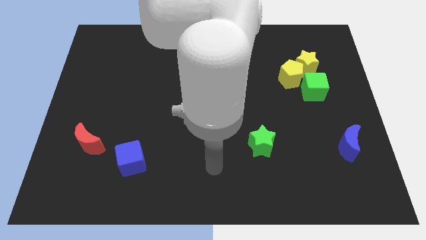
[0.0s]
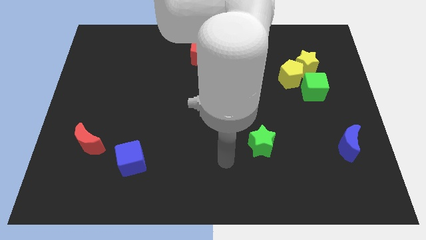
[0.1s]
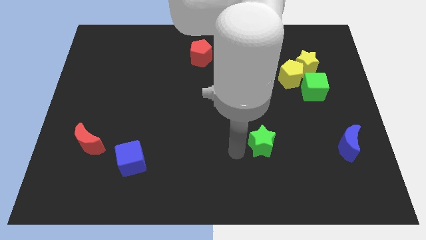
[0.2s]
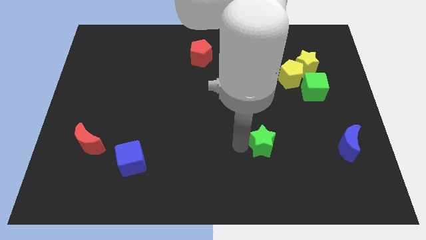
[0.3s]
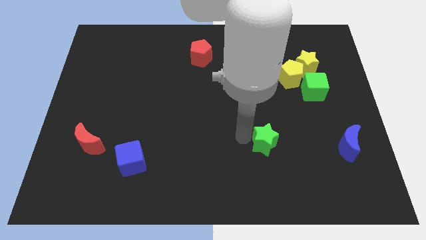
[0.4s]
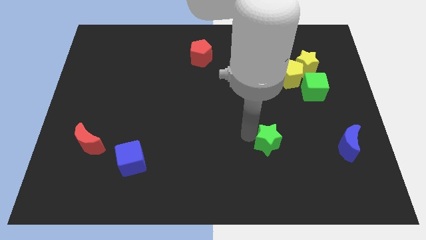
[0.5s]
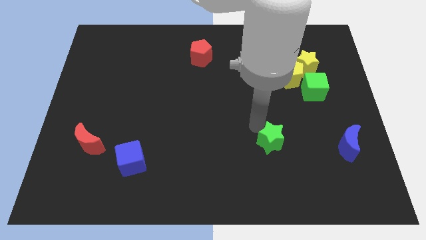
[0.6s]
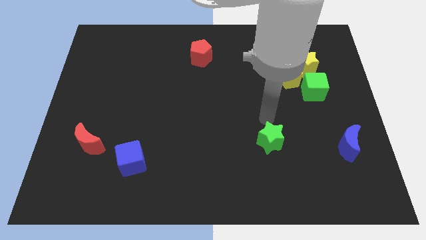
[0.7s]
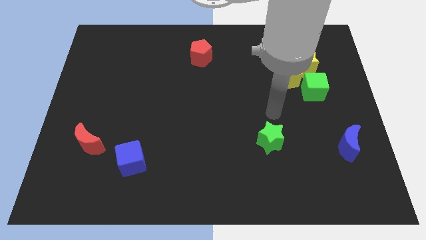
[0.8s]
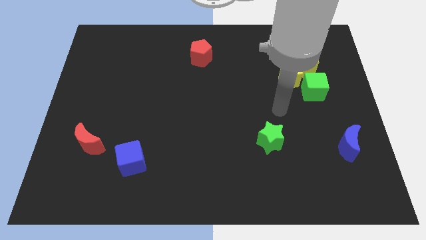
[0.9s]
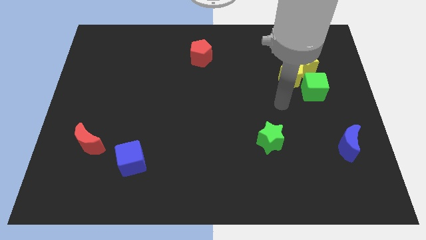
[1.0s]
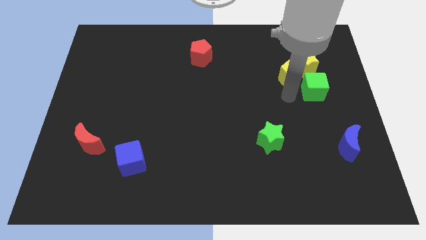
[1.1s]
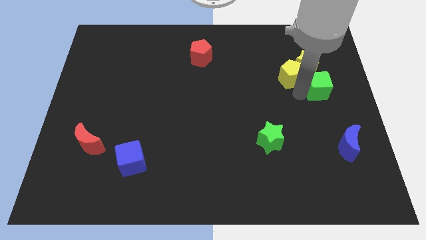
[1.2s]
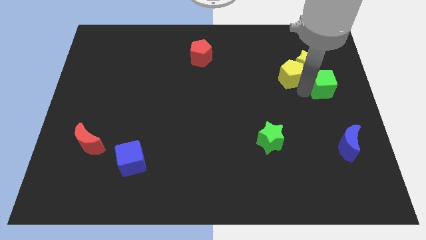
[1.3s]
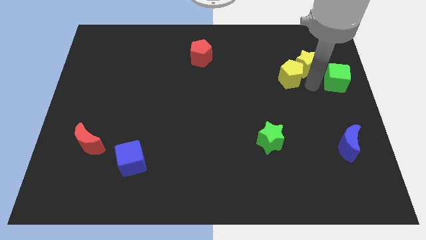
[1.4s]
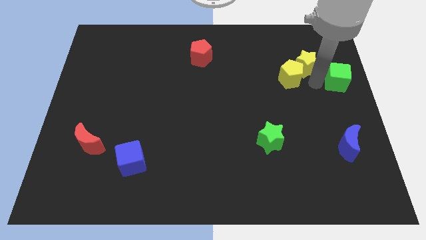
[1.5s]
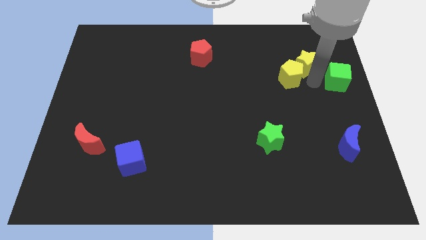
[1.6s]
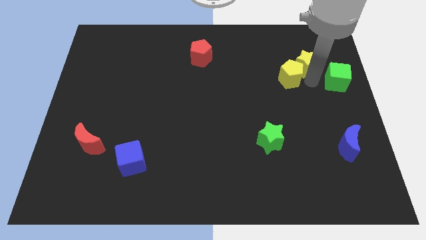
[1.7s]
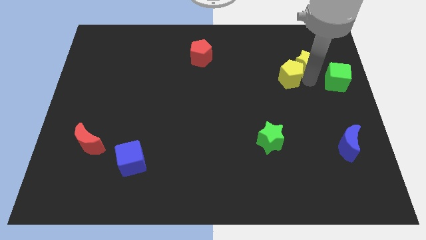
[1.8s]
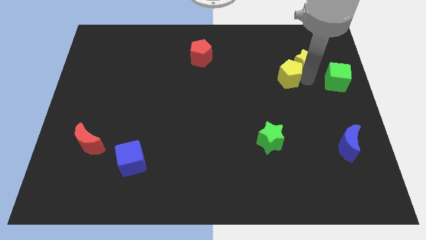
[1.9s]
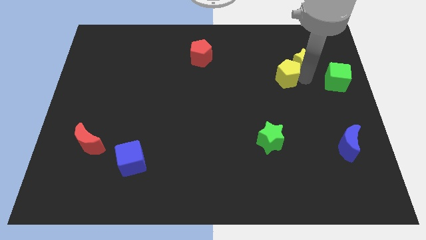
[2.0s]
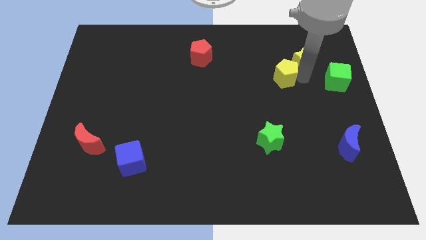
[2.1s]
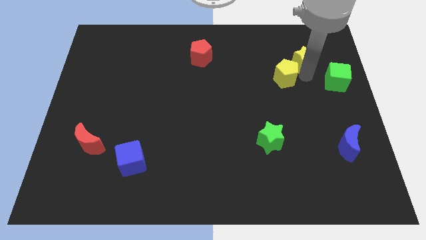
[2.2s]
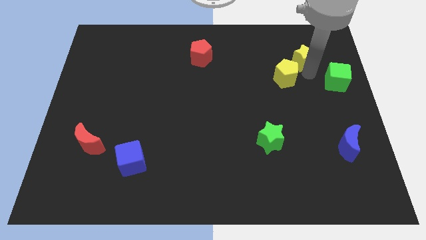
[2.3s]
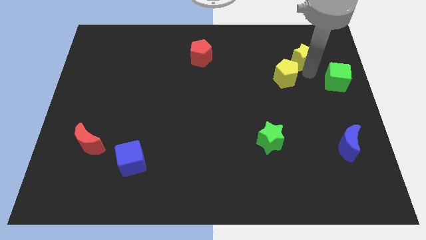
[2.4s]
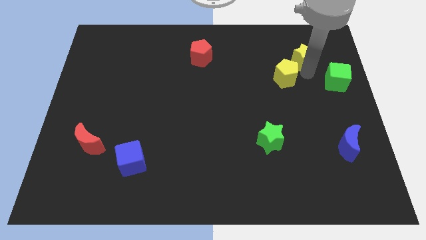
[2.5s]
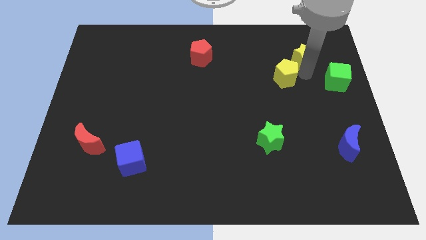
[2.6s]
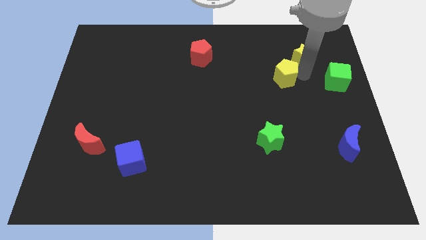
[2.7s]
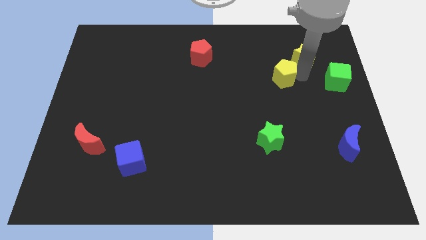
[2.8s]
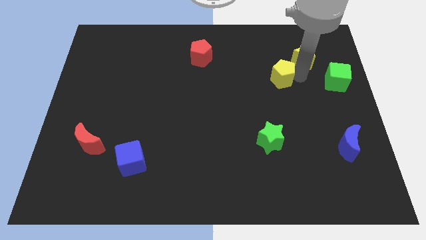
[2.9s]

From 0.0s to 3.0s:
separate the yellow pentagon from the yellow star and green cube

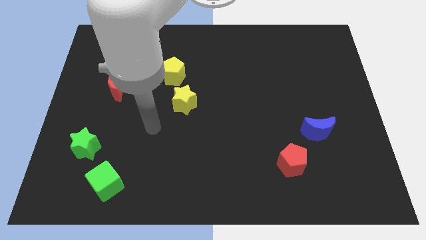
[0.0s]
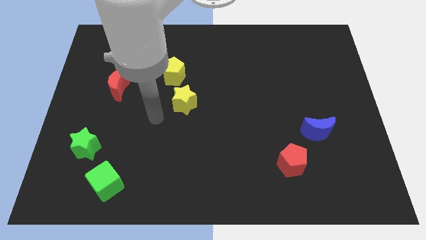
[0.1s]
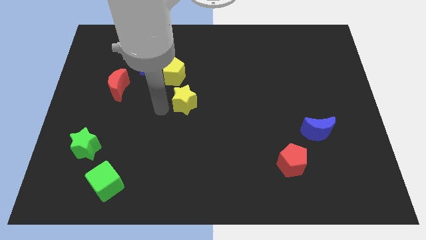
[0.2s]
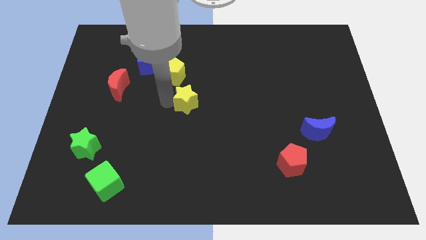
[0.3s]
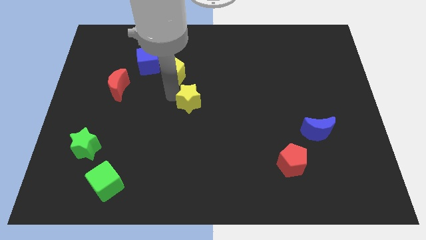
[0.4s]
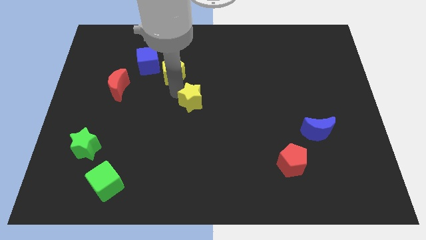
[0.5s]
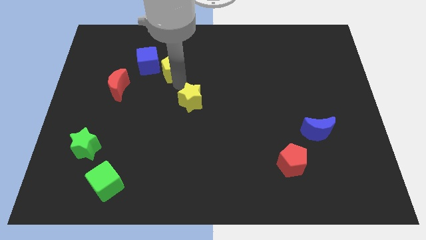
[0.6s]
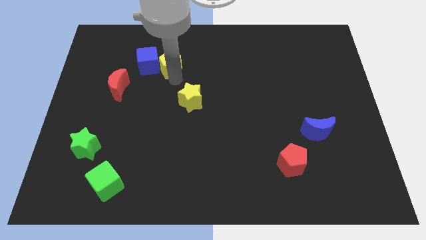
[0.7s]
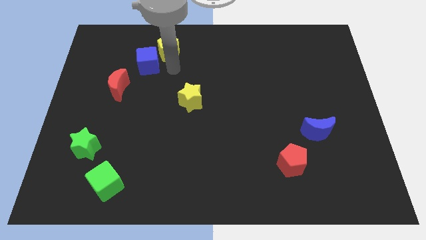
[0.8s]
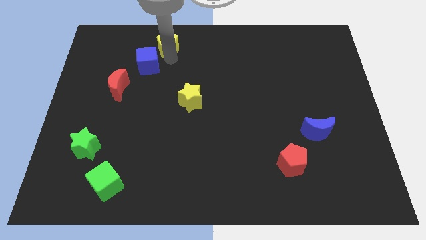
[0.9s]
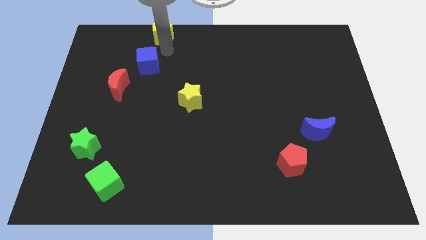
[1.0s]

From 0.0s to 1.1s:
move the blue cube away from the yellow pentagon

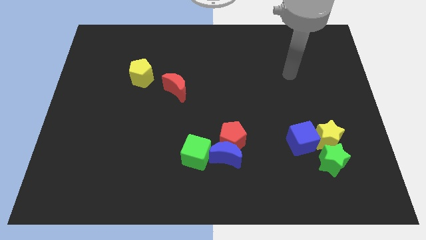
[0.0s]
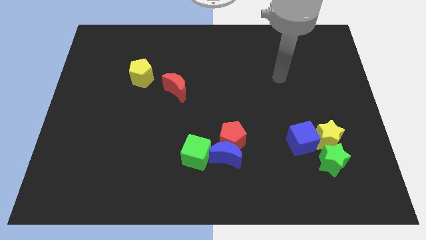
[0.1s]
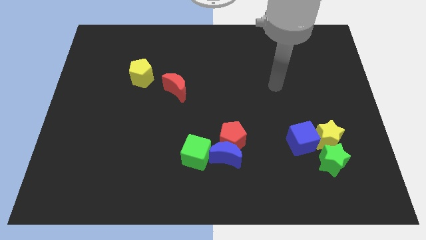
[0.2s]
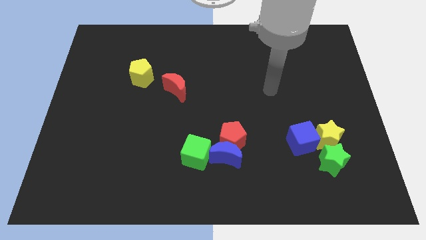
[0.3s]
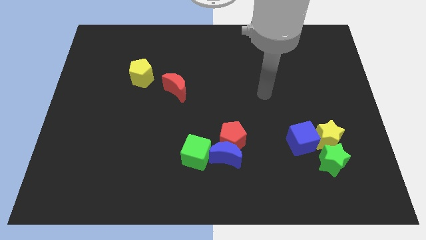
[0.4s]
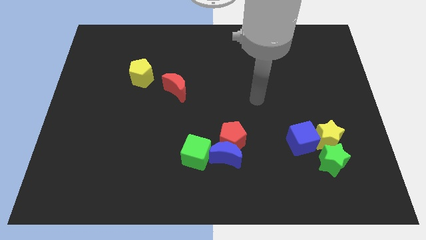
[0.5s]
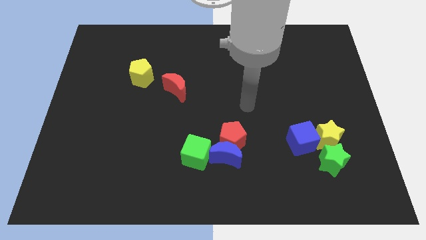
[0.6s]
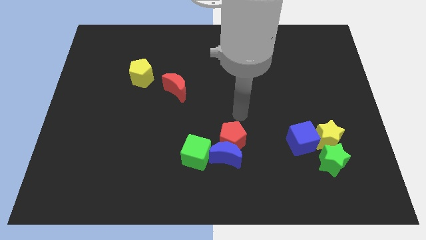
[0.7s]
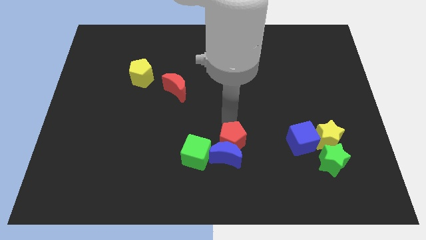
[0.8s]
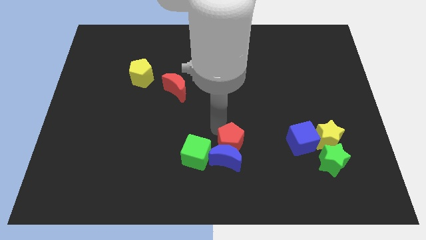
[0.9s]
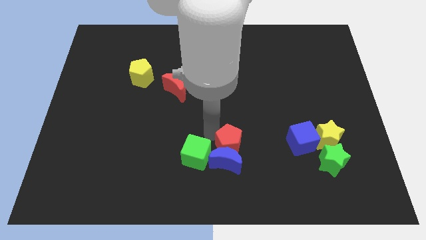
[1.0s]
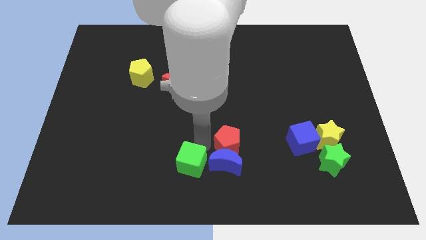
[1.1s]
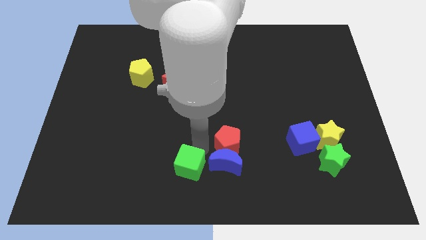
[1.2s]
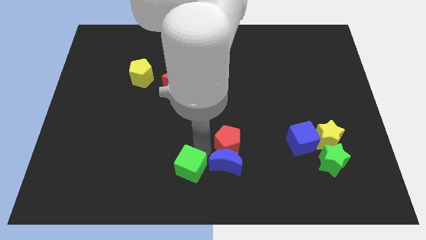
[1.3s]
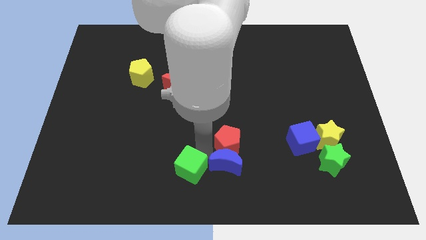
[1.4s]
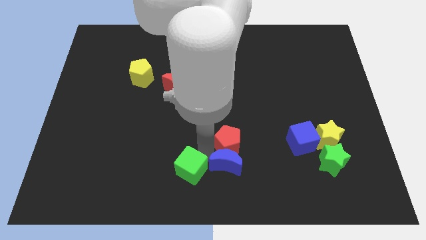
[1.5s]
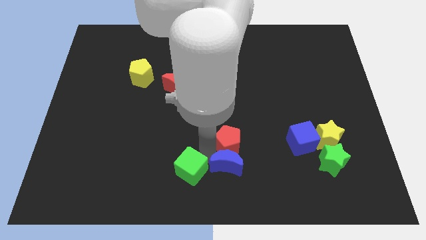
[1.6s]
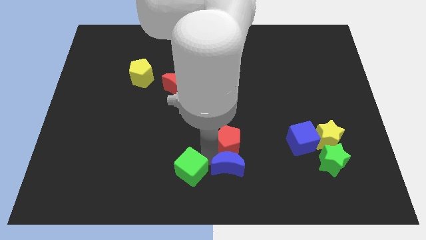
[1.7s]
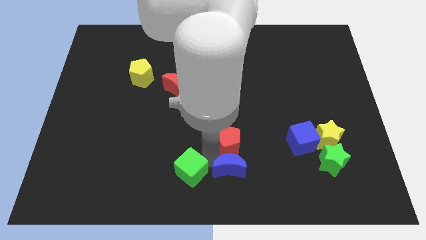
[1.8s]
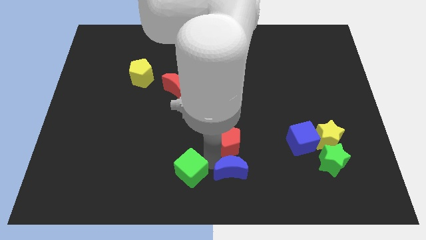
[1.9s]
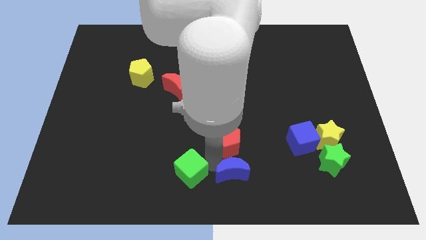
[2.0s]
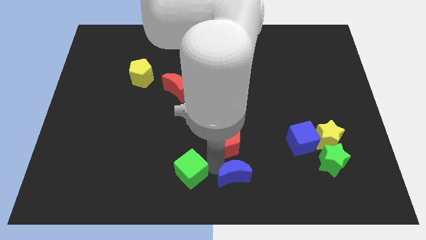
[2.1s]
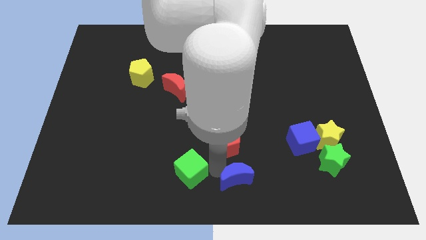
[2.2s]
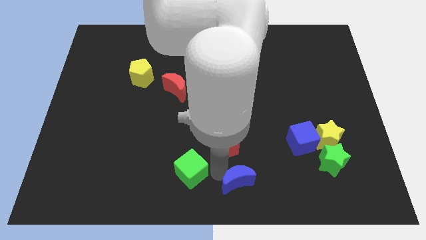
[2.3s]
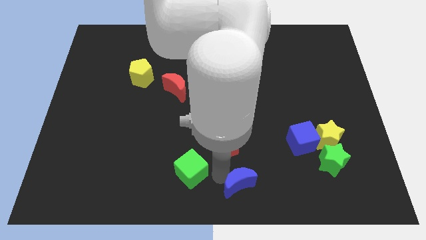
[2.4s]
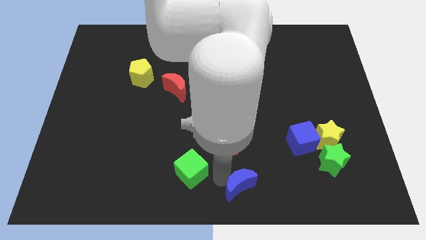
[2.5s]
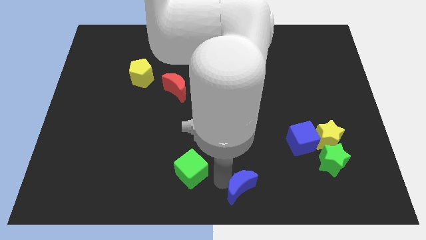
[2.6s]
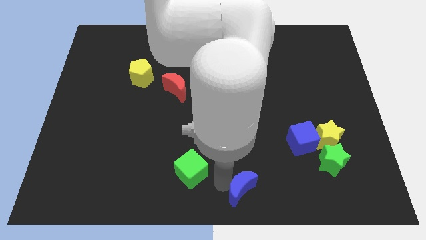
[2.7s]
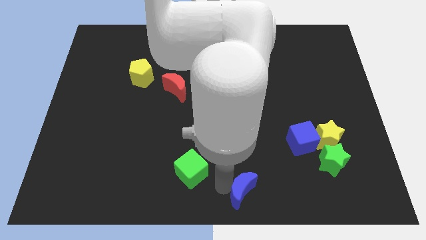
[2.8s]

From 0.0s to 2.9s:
move the blue moon away from the red pentagon and green cube

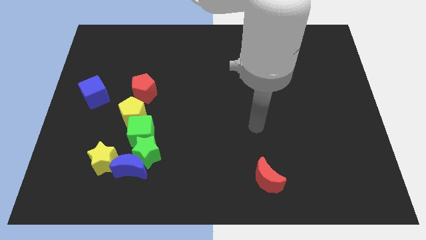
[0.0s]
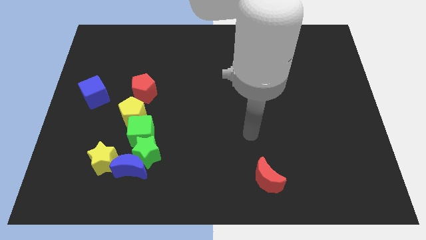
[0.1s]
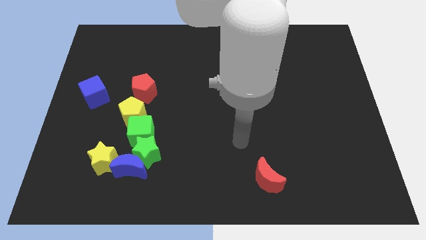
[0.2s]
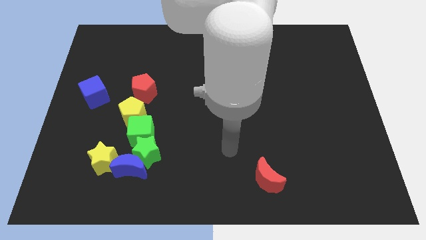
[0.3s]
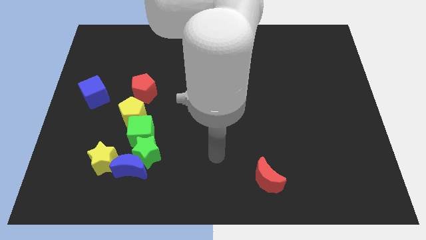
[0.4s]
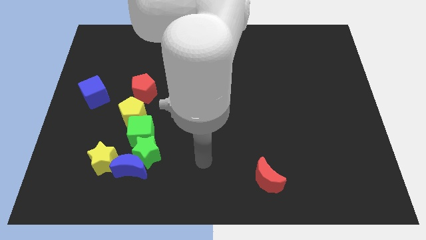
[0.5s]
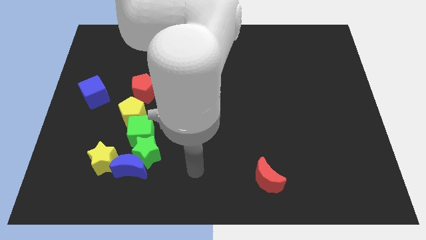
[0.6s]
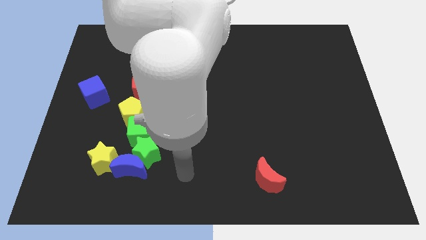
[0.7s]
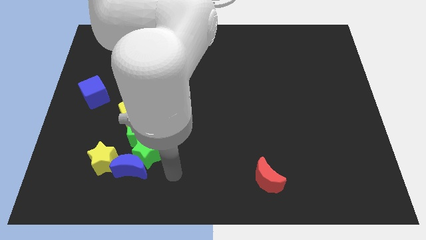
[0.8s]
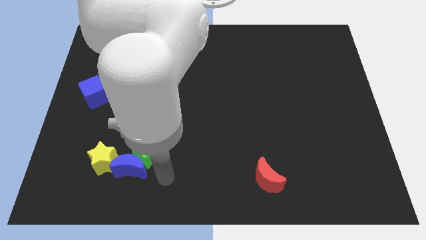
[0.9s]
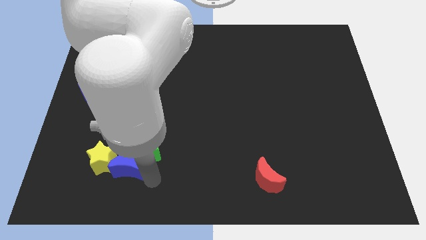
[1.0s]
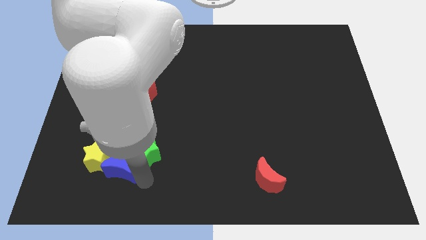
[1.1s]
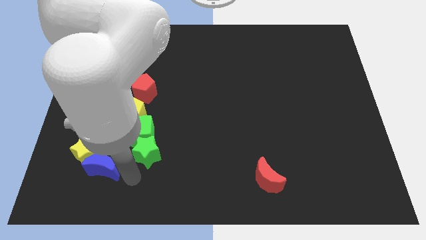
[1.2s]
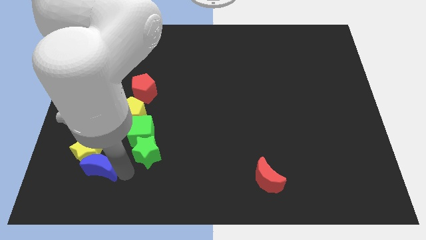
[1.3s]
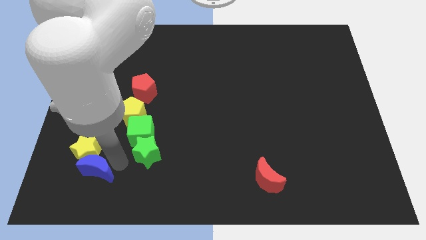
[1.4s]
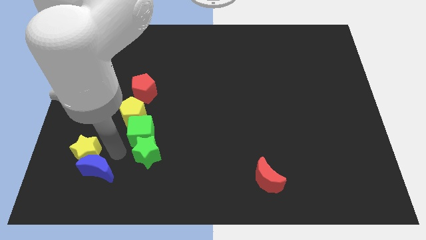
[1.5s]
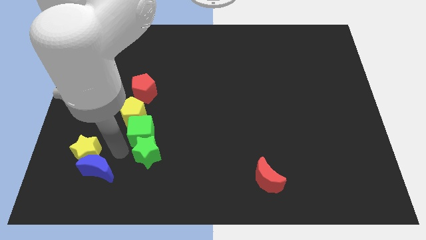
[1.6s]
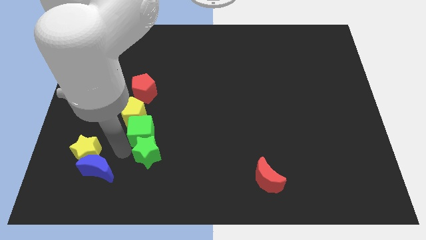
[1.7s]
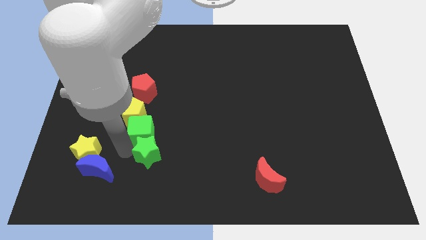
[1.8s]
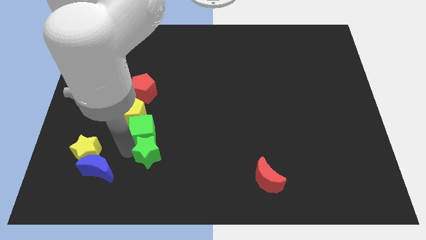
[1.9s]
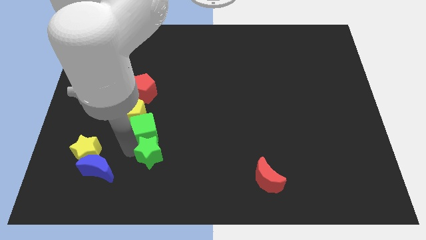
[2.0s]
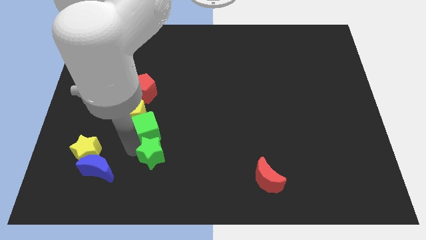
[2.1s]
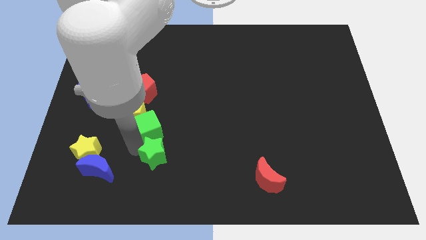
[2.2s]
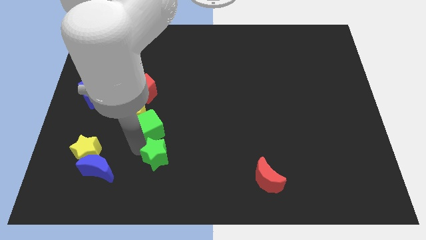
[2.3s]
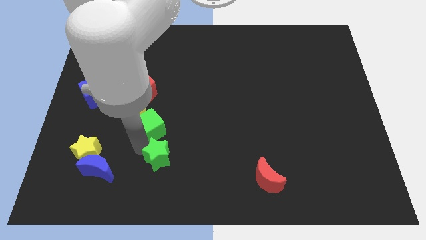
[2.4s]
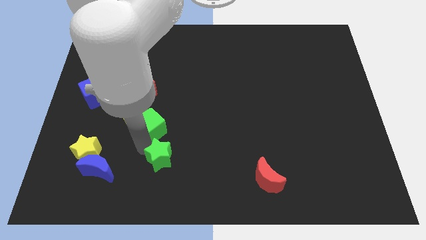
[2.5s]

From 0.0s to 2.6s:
separate the green star from the group of blocks
